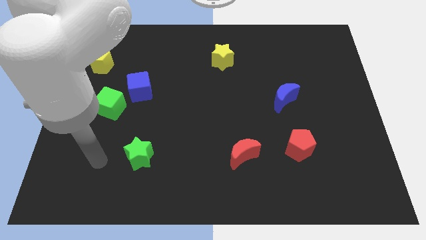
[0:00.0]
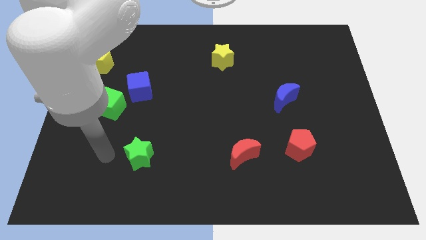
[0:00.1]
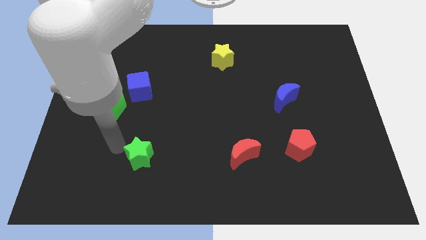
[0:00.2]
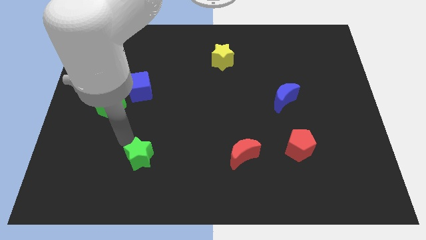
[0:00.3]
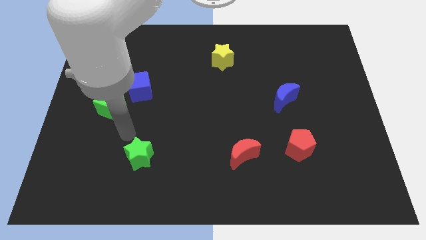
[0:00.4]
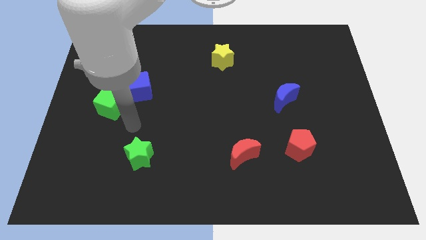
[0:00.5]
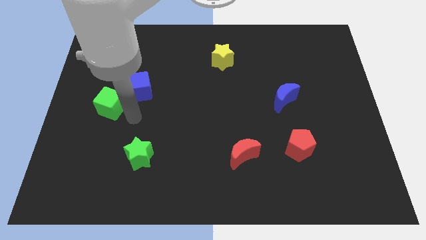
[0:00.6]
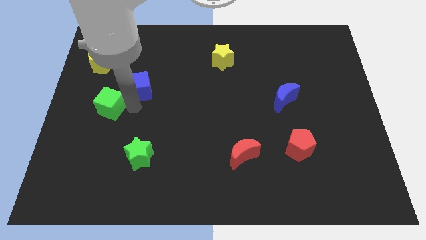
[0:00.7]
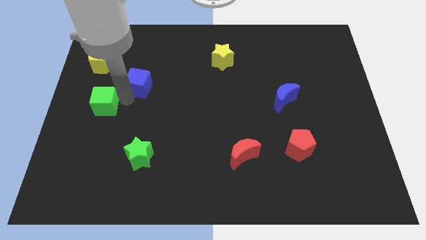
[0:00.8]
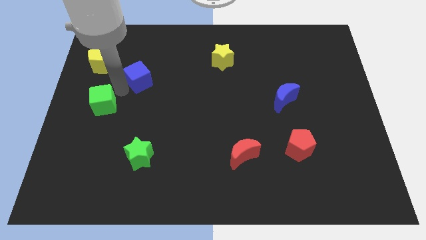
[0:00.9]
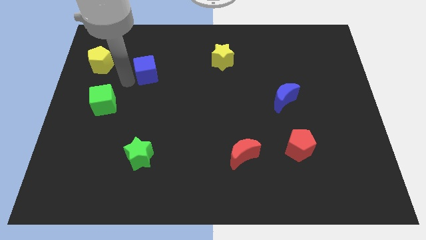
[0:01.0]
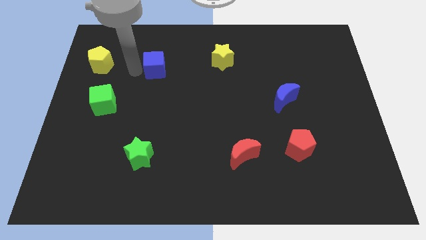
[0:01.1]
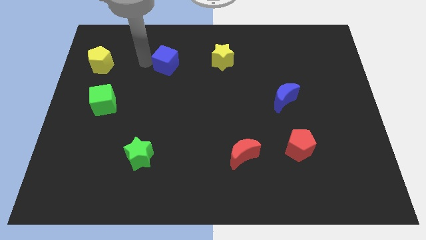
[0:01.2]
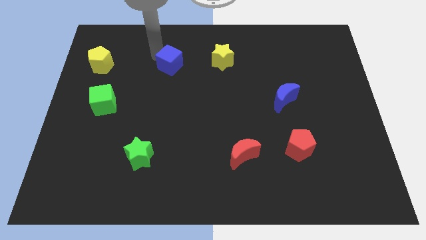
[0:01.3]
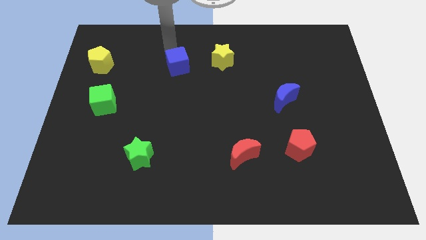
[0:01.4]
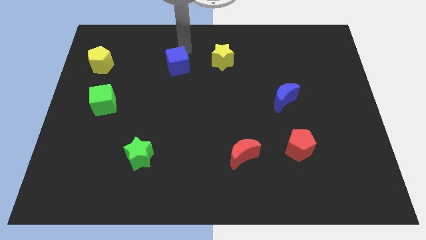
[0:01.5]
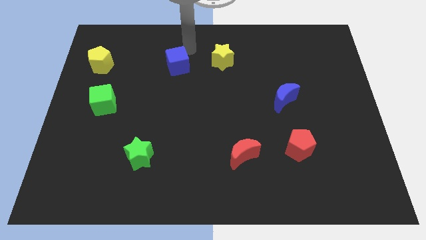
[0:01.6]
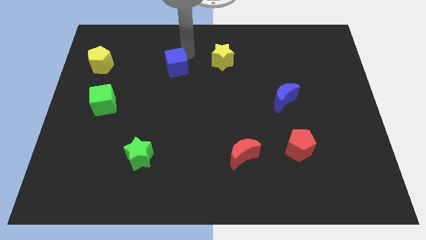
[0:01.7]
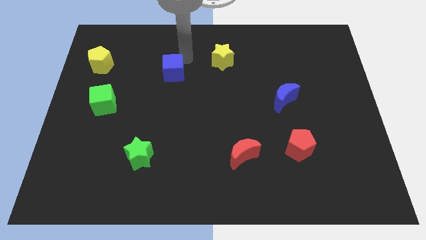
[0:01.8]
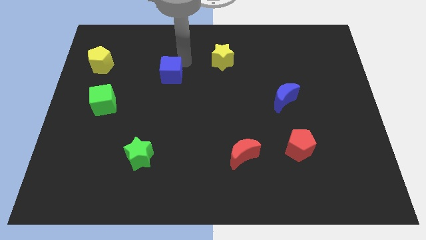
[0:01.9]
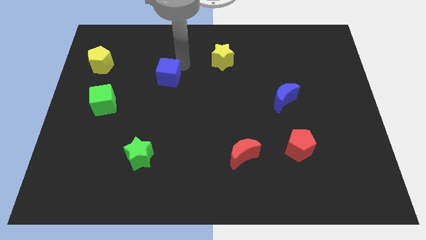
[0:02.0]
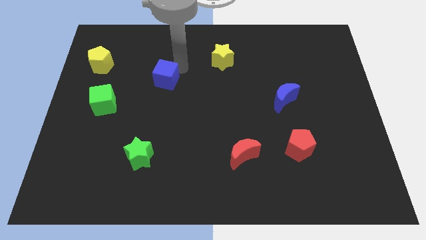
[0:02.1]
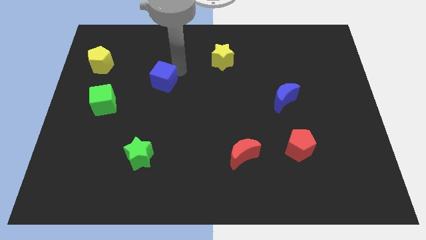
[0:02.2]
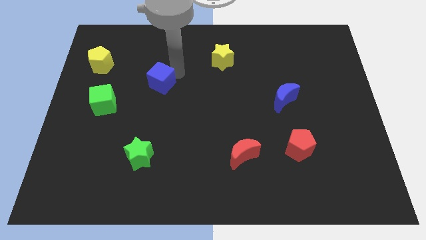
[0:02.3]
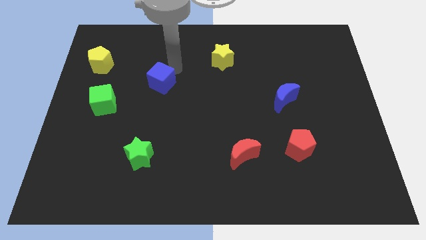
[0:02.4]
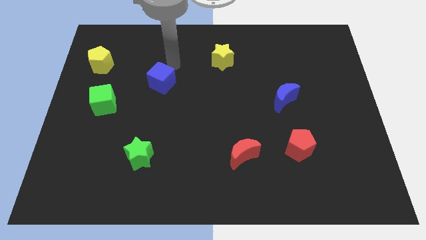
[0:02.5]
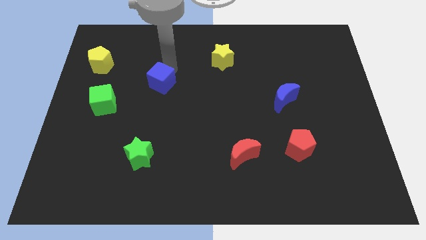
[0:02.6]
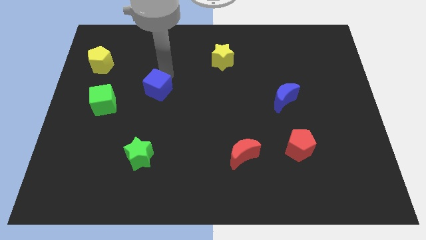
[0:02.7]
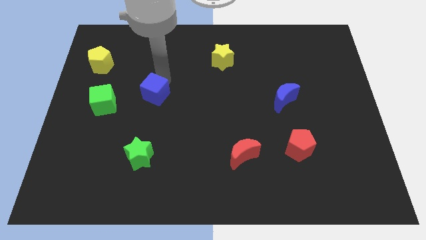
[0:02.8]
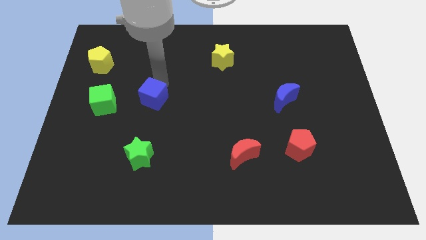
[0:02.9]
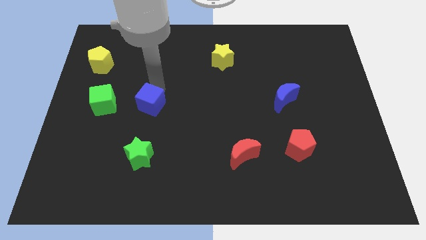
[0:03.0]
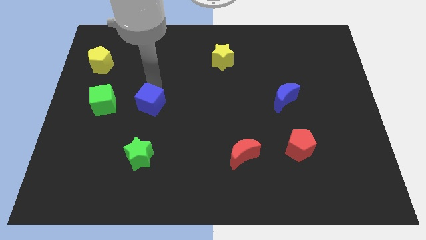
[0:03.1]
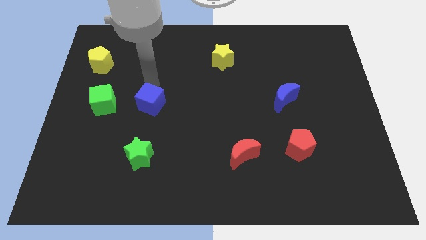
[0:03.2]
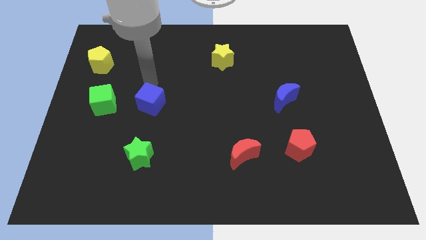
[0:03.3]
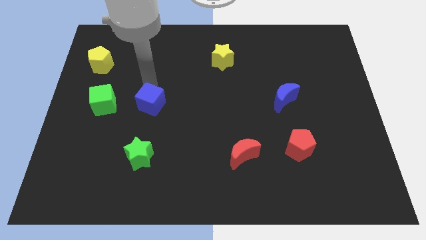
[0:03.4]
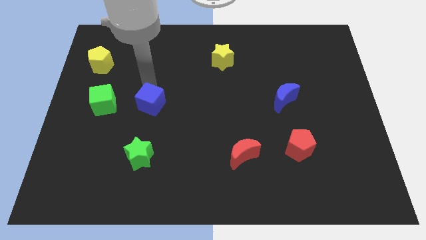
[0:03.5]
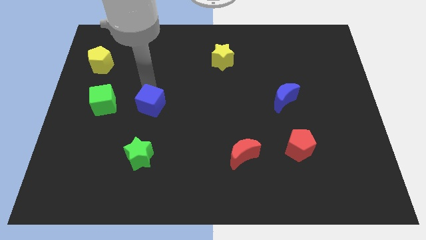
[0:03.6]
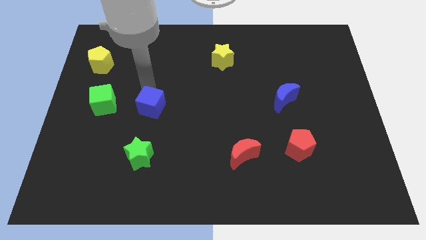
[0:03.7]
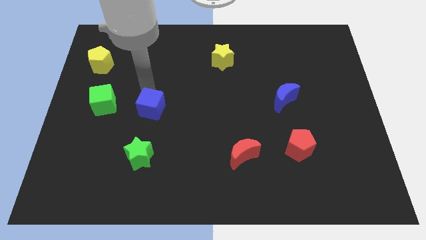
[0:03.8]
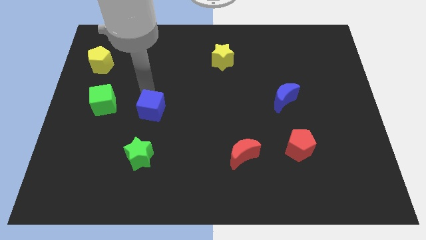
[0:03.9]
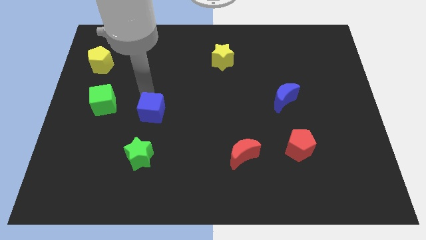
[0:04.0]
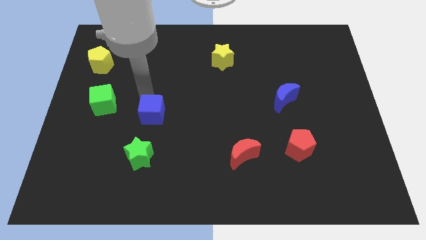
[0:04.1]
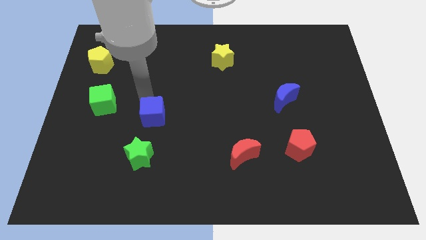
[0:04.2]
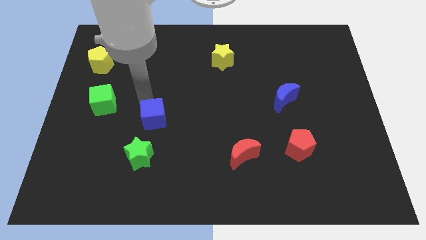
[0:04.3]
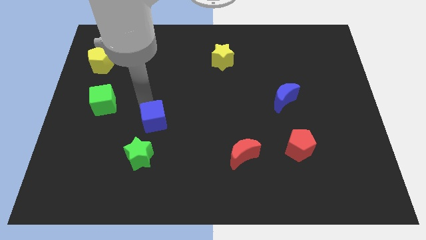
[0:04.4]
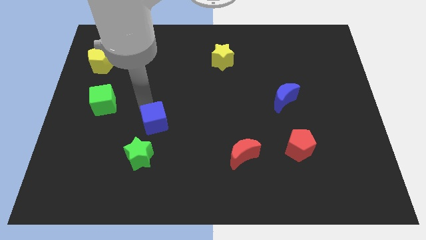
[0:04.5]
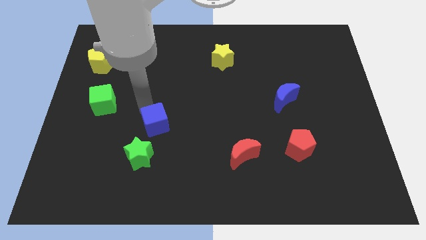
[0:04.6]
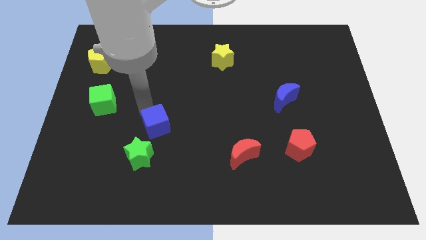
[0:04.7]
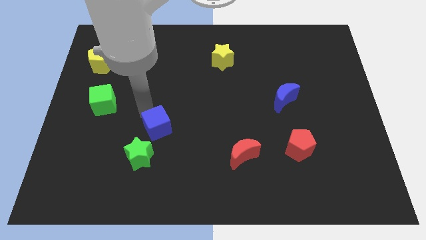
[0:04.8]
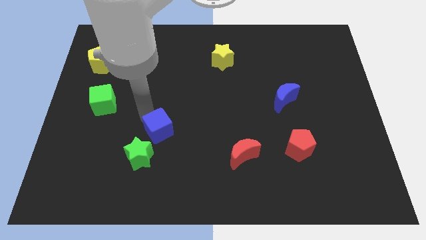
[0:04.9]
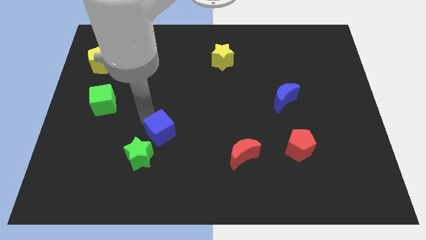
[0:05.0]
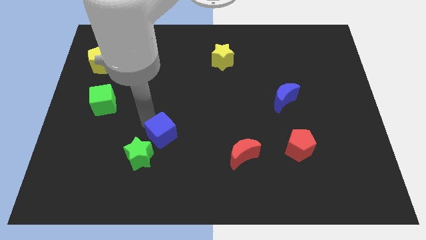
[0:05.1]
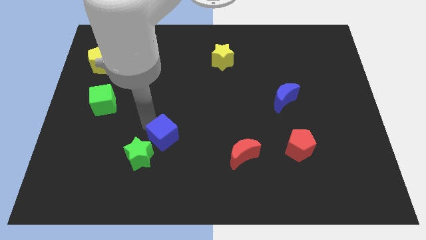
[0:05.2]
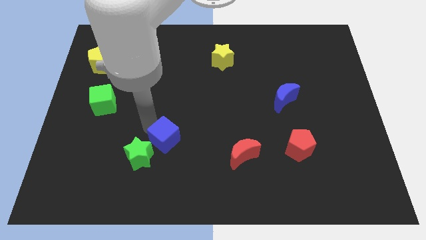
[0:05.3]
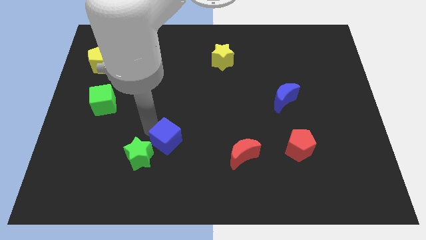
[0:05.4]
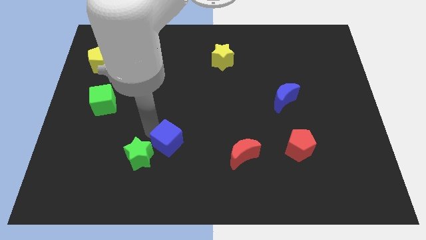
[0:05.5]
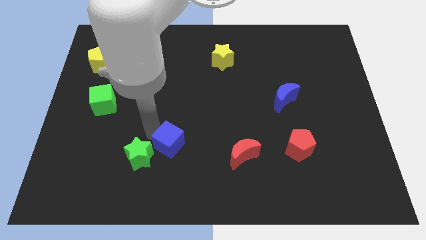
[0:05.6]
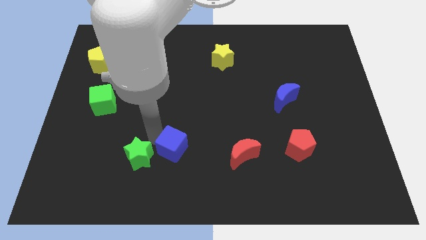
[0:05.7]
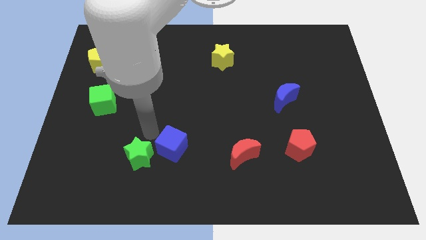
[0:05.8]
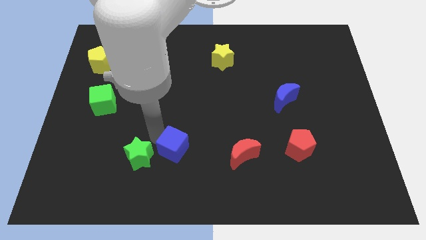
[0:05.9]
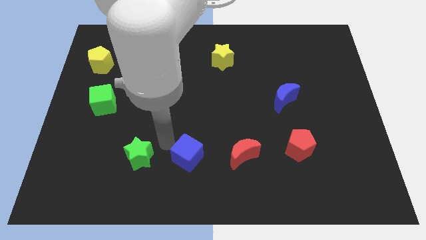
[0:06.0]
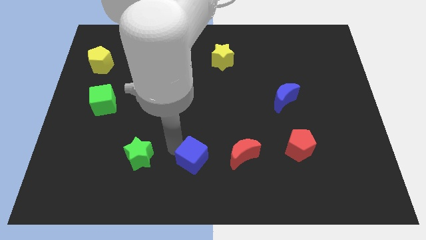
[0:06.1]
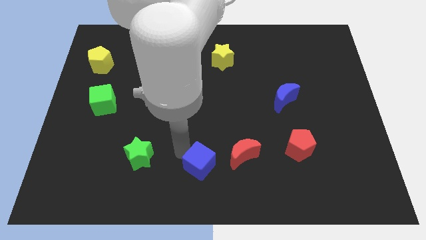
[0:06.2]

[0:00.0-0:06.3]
push the blue cube diagonally down and to the left of the red moon

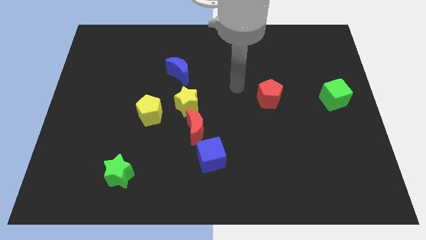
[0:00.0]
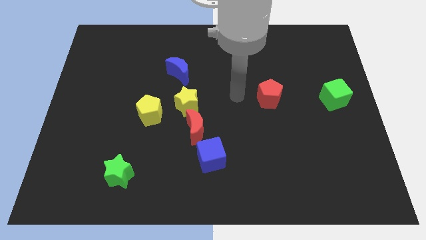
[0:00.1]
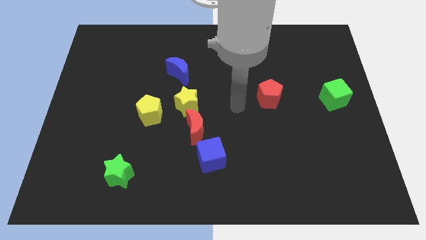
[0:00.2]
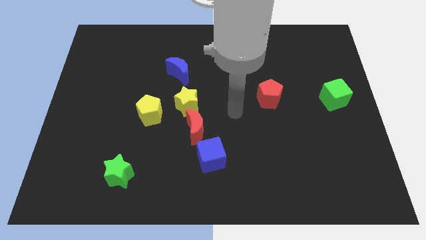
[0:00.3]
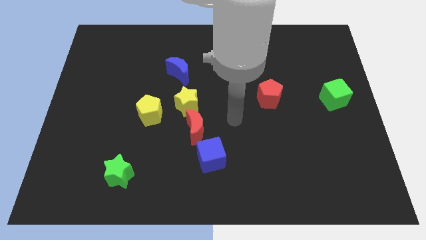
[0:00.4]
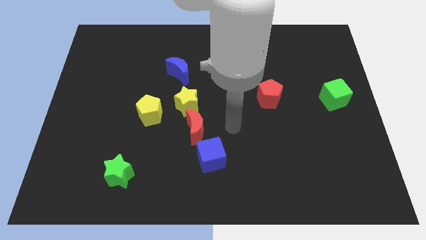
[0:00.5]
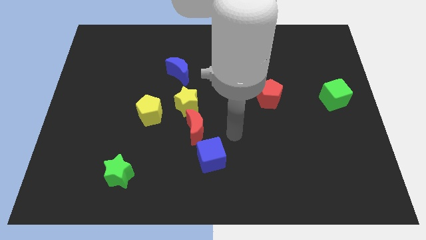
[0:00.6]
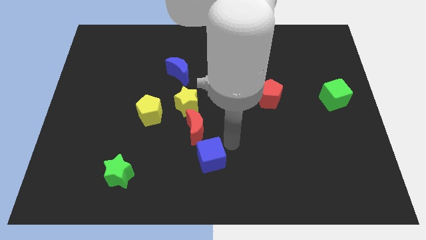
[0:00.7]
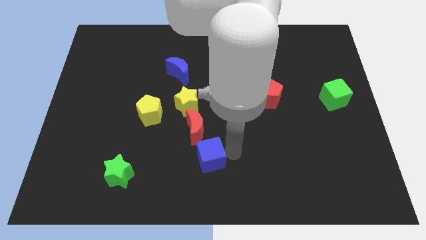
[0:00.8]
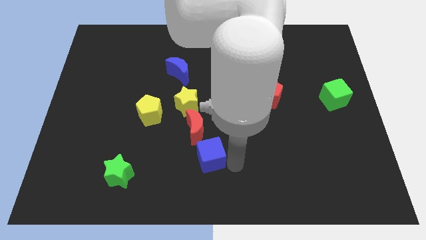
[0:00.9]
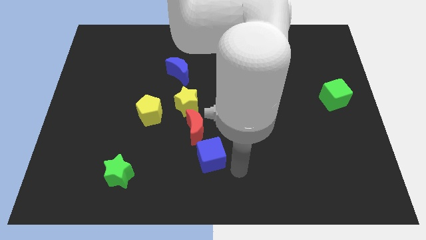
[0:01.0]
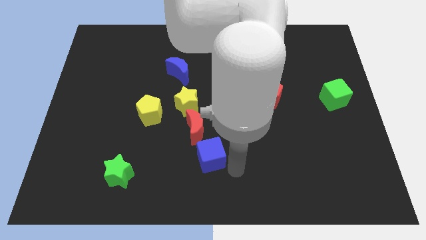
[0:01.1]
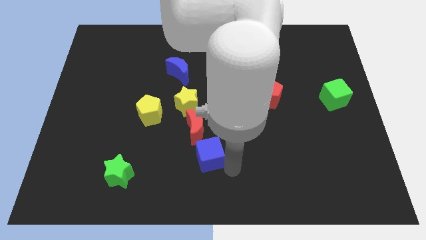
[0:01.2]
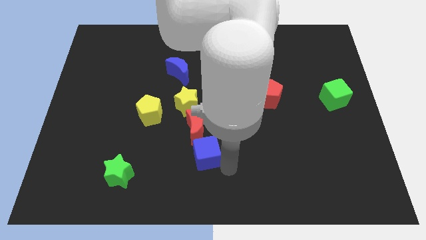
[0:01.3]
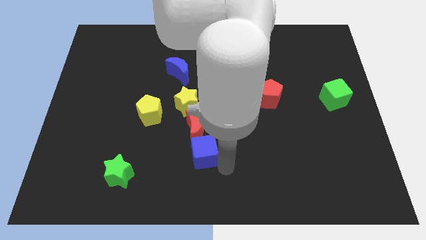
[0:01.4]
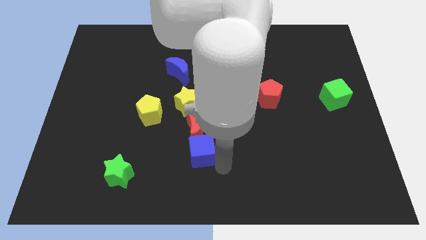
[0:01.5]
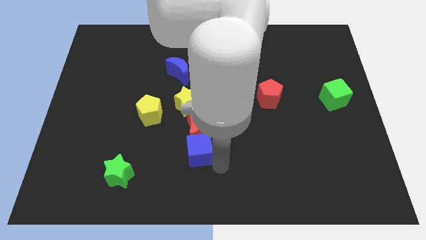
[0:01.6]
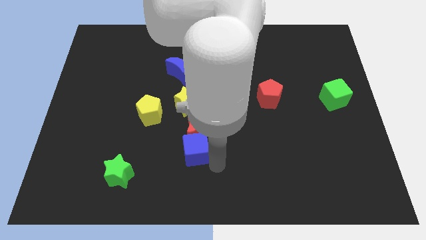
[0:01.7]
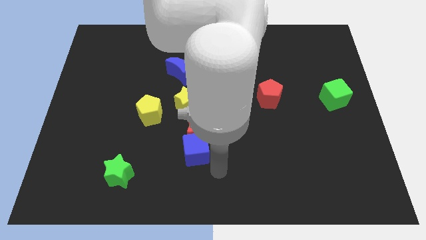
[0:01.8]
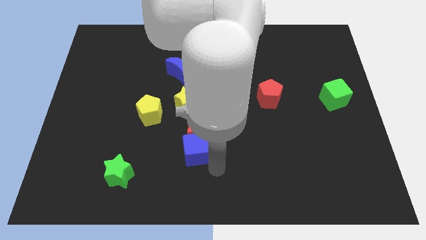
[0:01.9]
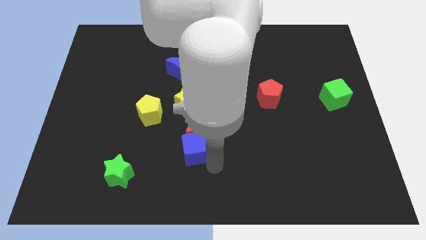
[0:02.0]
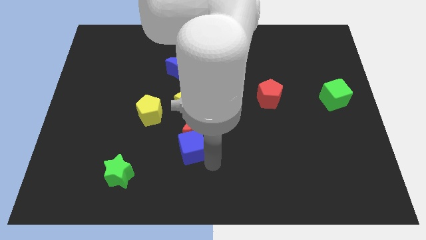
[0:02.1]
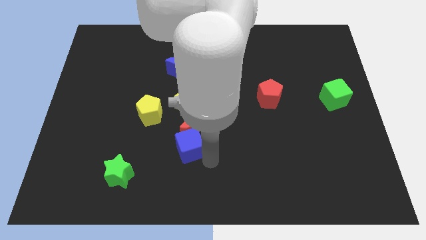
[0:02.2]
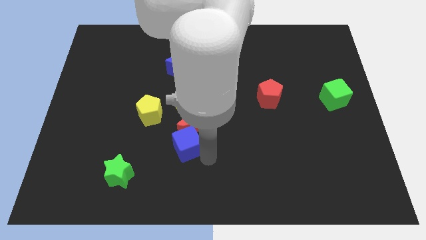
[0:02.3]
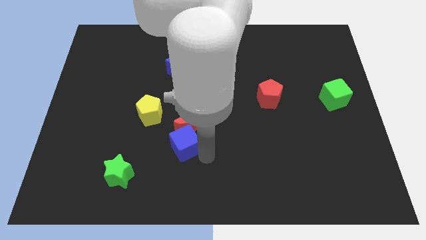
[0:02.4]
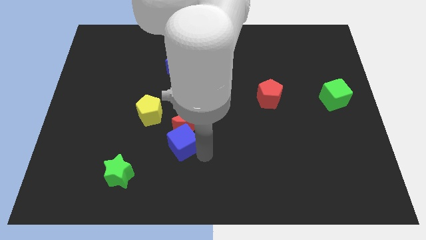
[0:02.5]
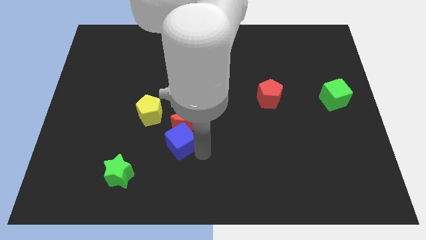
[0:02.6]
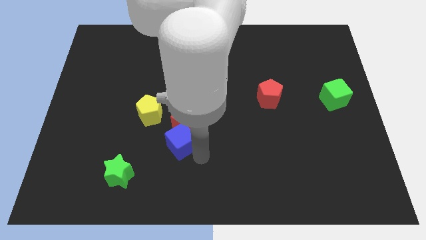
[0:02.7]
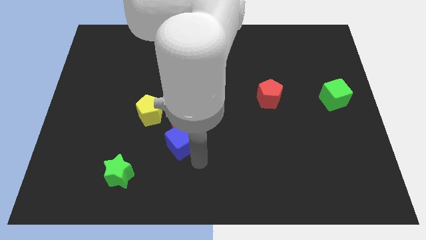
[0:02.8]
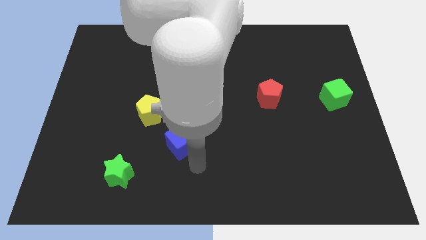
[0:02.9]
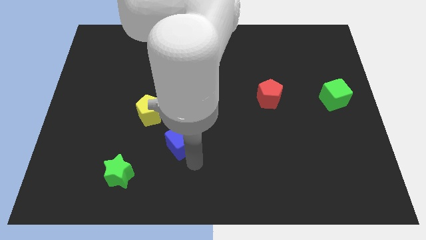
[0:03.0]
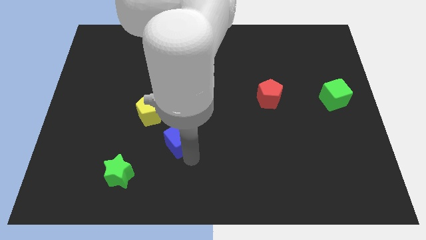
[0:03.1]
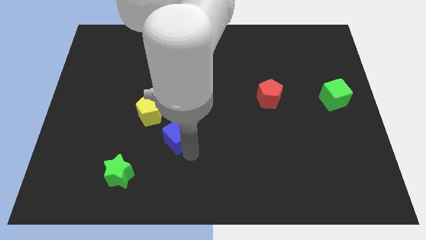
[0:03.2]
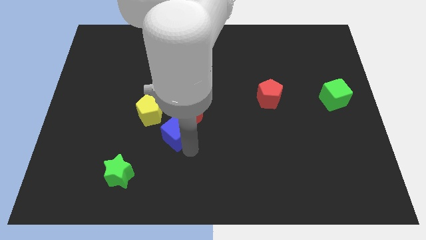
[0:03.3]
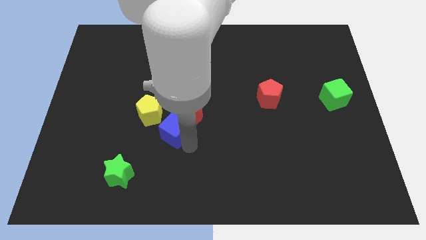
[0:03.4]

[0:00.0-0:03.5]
put the blue cube to the left side of the red moon
